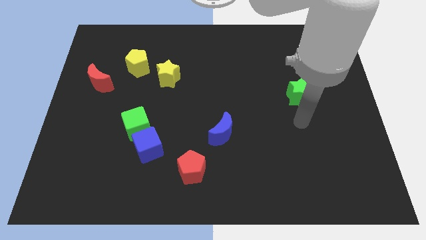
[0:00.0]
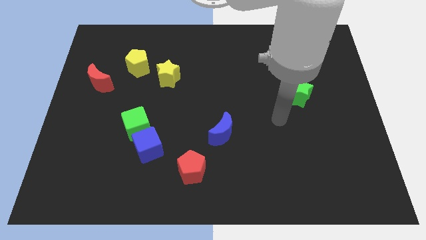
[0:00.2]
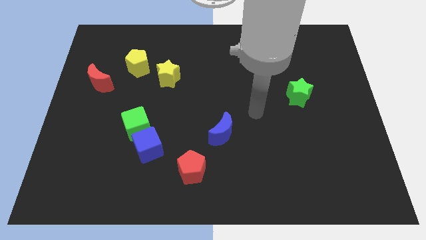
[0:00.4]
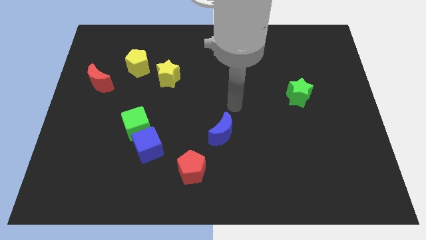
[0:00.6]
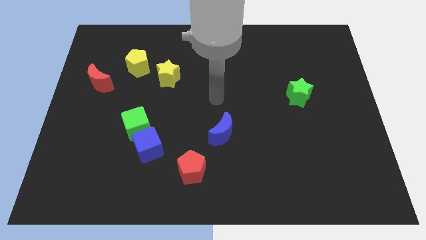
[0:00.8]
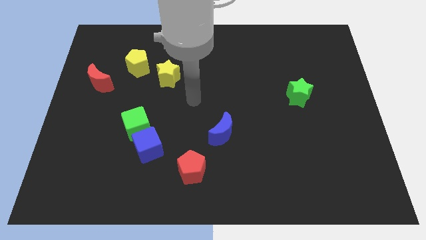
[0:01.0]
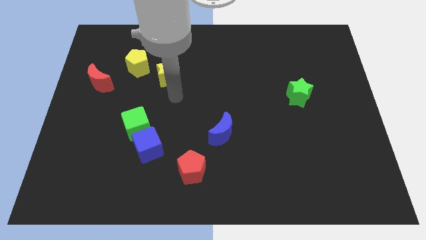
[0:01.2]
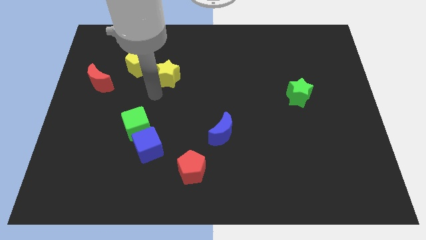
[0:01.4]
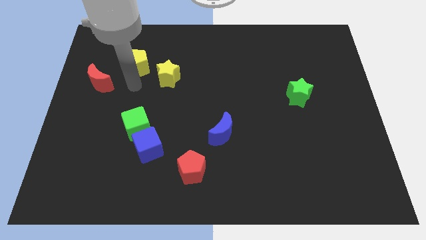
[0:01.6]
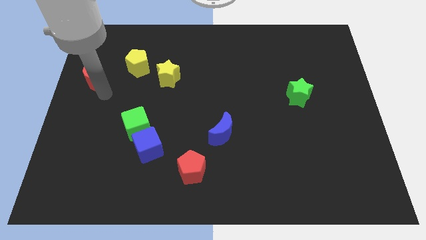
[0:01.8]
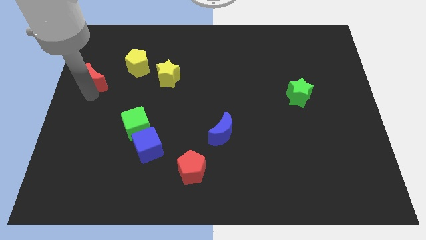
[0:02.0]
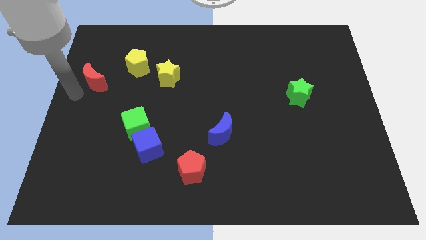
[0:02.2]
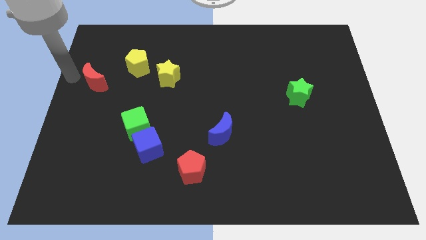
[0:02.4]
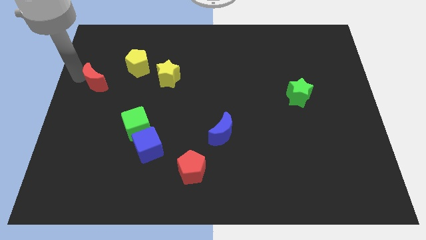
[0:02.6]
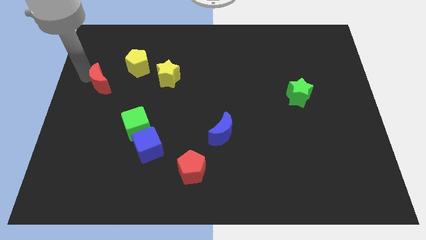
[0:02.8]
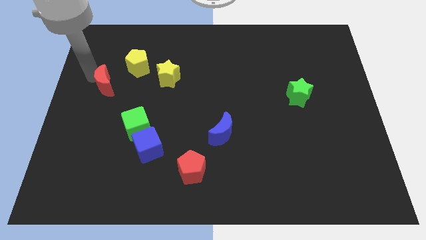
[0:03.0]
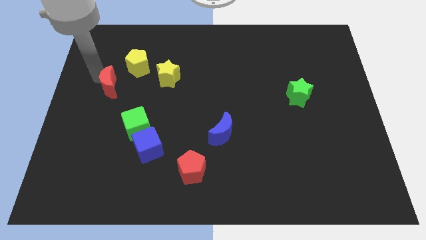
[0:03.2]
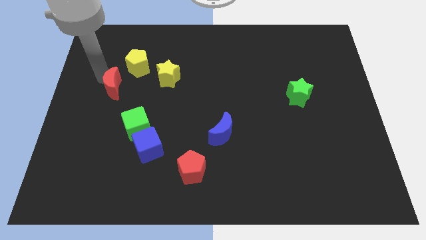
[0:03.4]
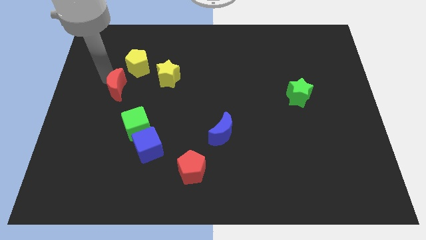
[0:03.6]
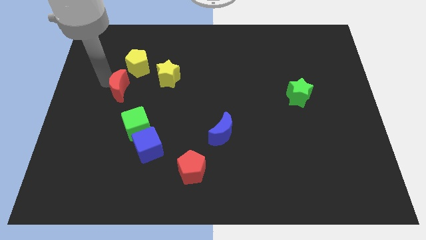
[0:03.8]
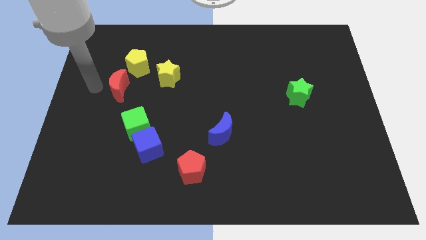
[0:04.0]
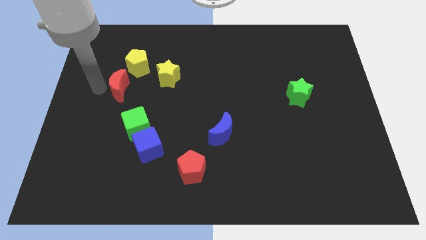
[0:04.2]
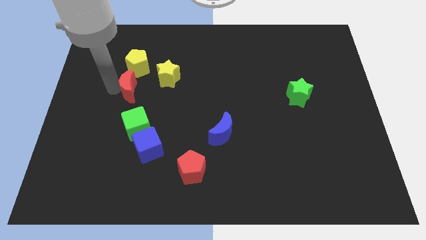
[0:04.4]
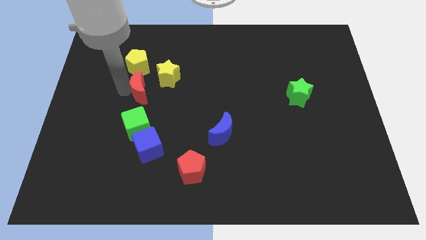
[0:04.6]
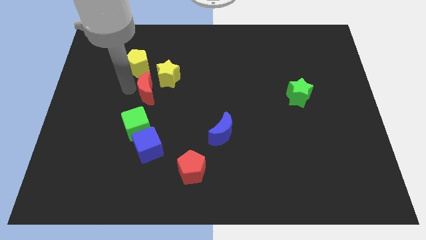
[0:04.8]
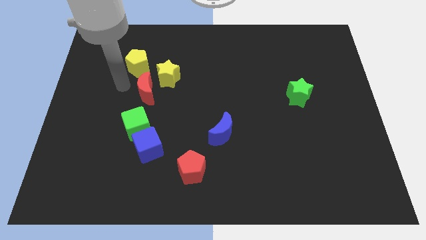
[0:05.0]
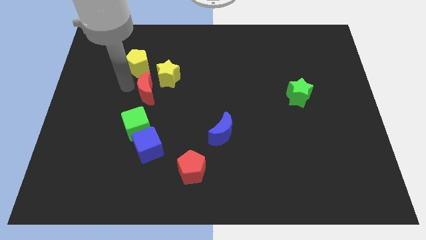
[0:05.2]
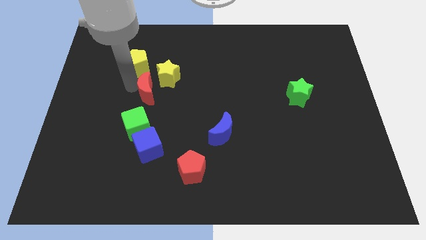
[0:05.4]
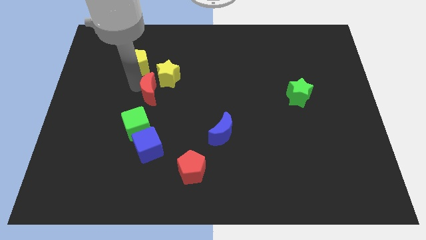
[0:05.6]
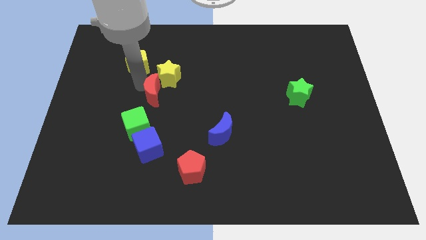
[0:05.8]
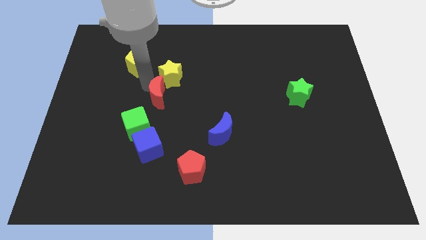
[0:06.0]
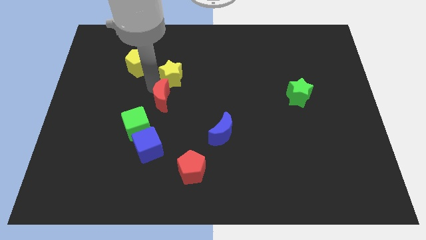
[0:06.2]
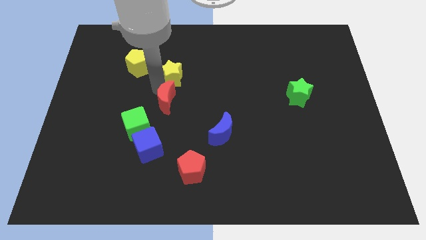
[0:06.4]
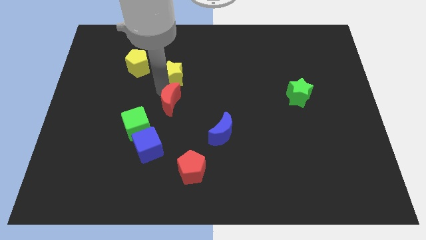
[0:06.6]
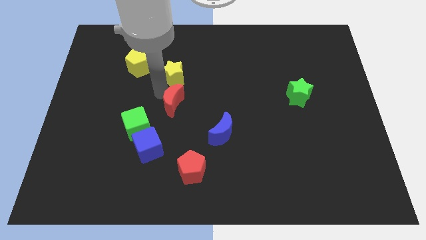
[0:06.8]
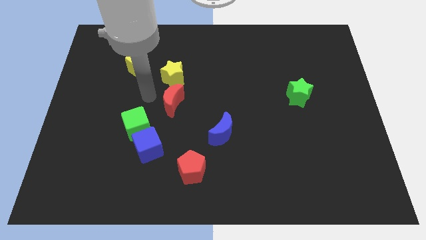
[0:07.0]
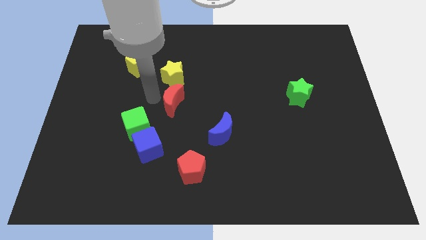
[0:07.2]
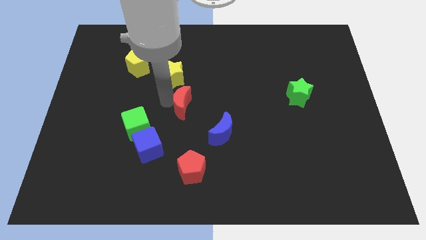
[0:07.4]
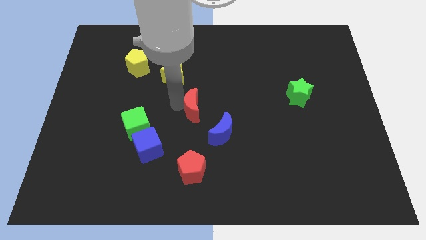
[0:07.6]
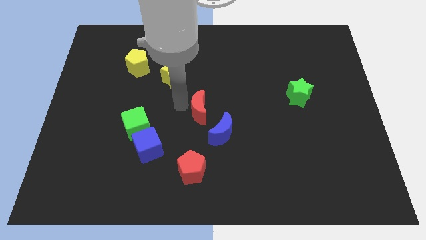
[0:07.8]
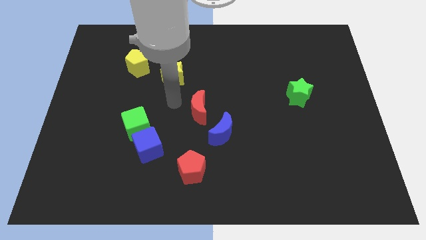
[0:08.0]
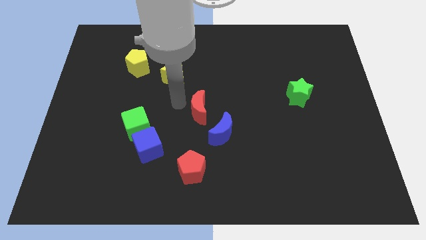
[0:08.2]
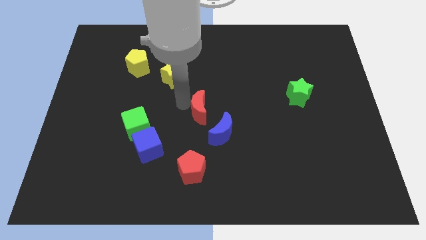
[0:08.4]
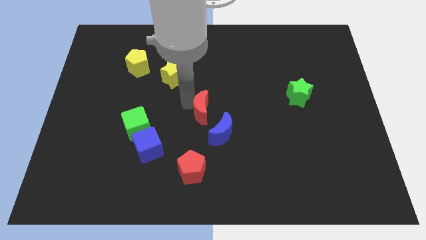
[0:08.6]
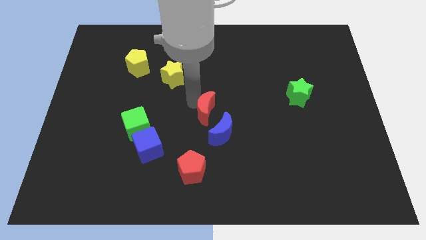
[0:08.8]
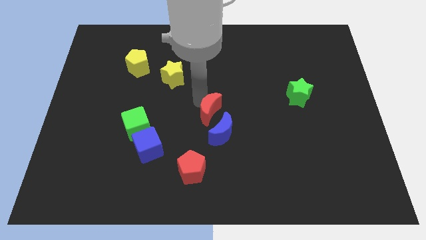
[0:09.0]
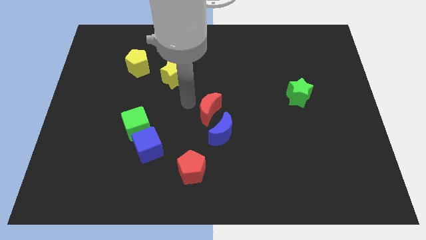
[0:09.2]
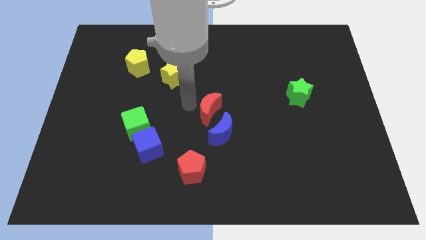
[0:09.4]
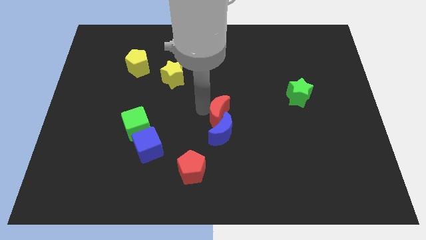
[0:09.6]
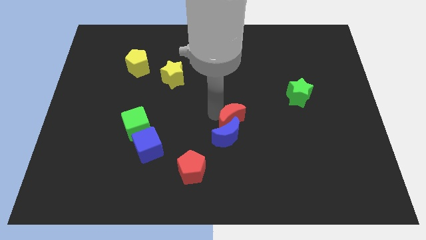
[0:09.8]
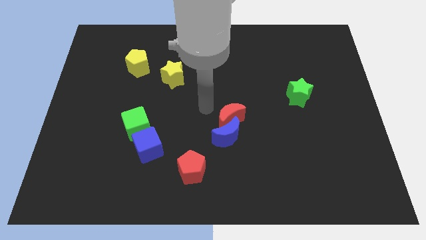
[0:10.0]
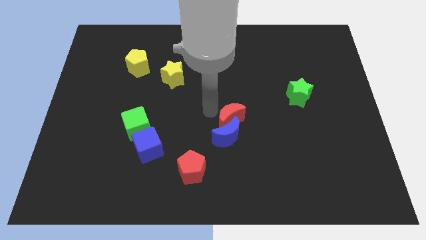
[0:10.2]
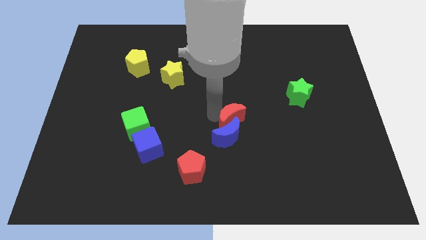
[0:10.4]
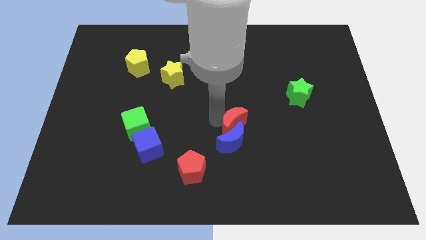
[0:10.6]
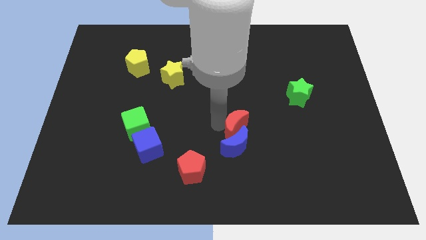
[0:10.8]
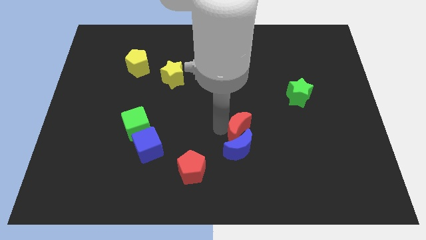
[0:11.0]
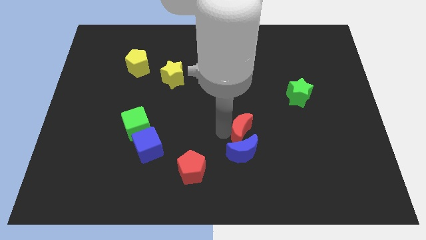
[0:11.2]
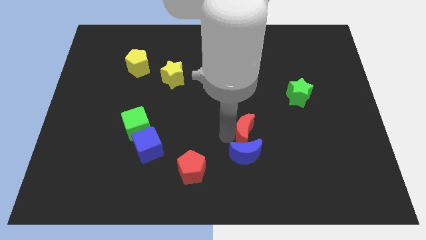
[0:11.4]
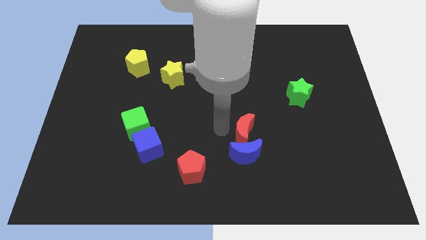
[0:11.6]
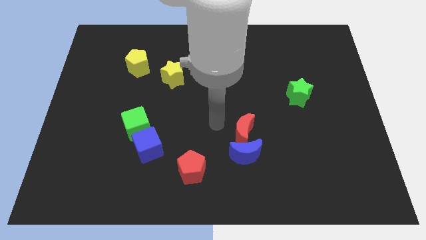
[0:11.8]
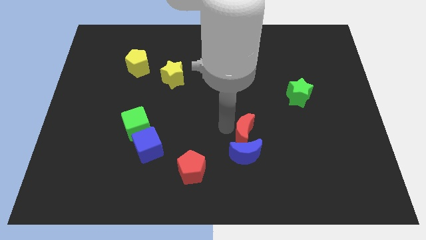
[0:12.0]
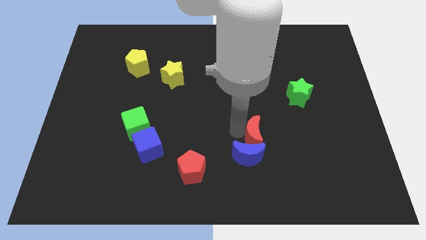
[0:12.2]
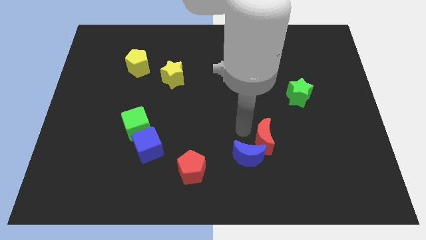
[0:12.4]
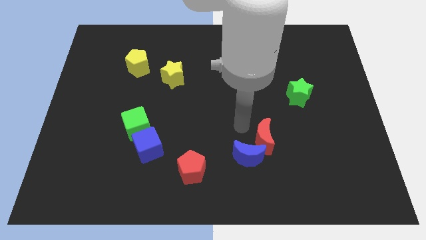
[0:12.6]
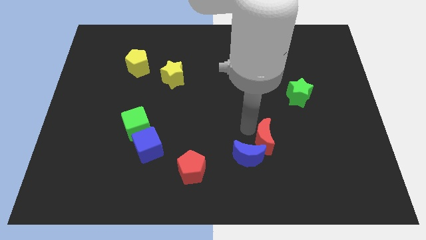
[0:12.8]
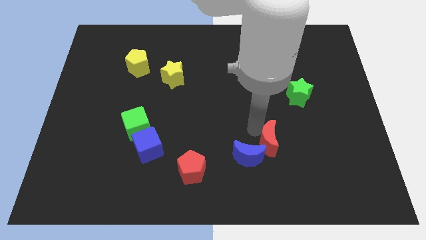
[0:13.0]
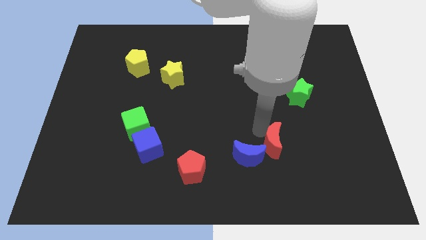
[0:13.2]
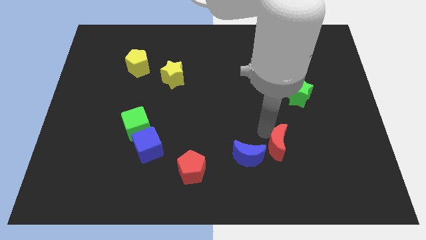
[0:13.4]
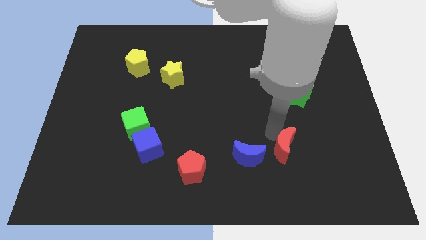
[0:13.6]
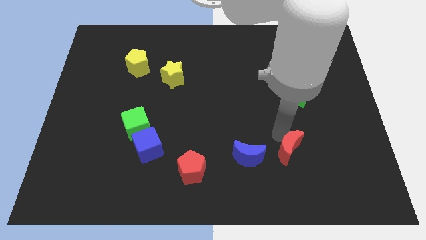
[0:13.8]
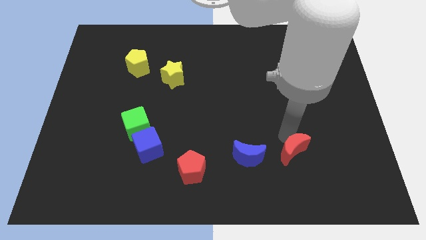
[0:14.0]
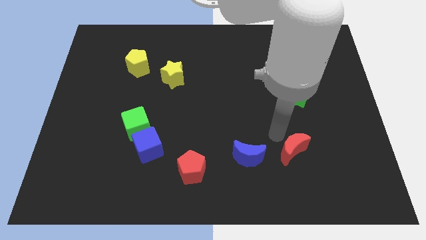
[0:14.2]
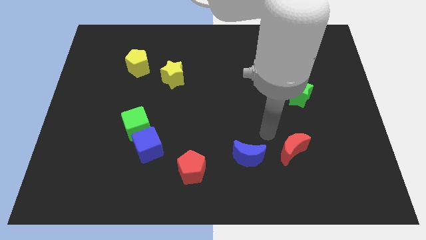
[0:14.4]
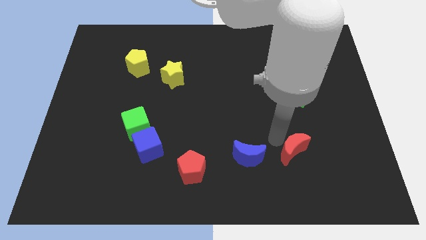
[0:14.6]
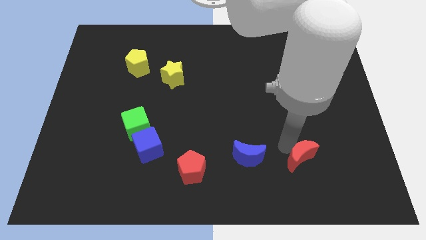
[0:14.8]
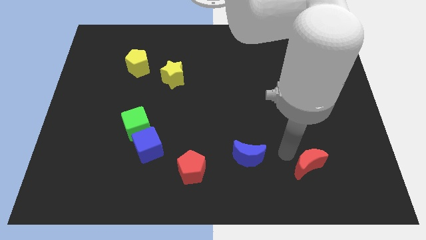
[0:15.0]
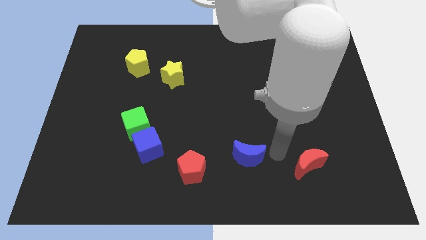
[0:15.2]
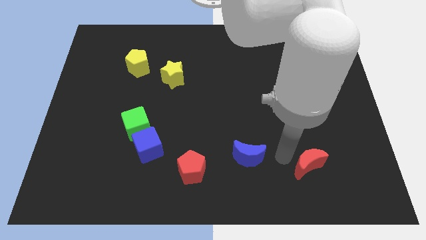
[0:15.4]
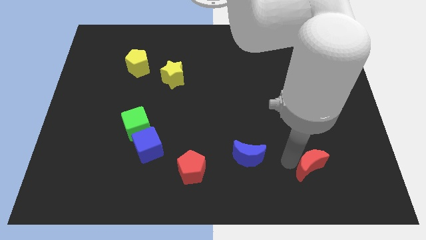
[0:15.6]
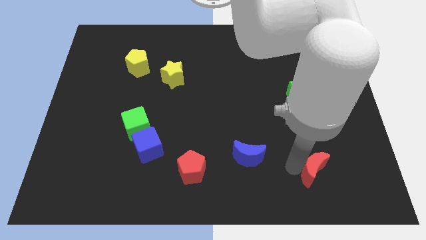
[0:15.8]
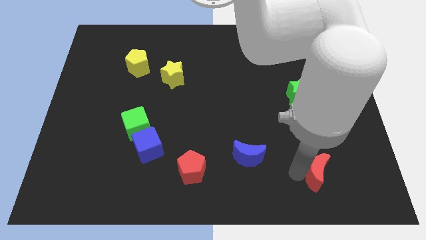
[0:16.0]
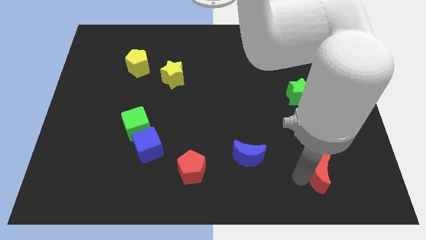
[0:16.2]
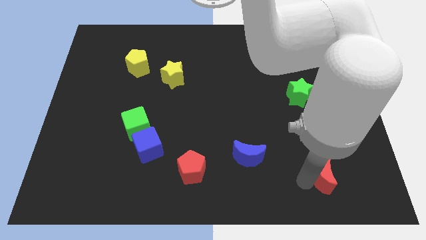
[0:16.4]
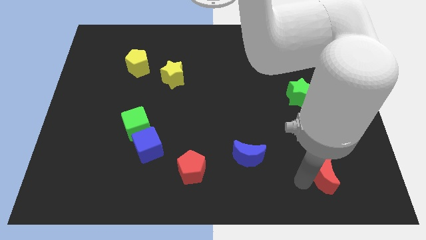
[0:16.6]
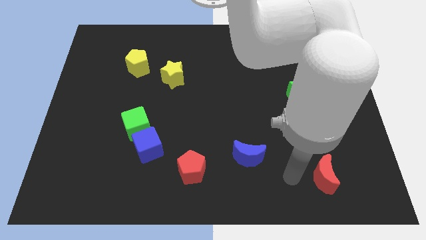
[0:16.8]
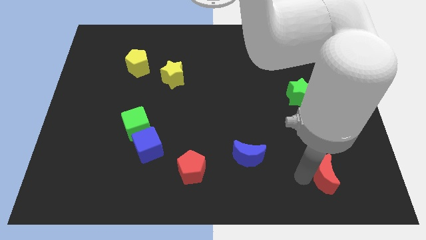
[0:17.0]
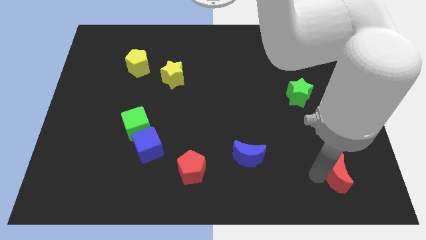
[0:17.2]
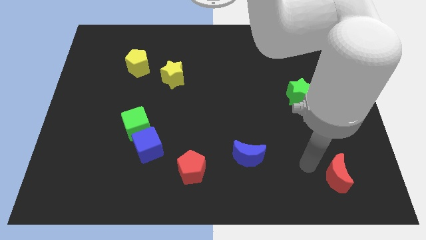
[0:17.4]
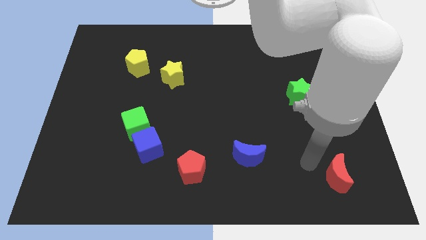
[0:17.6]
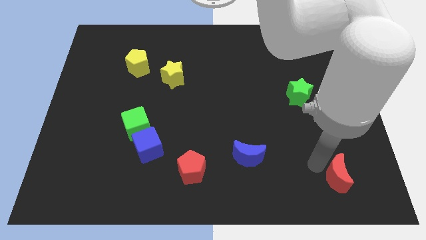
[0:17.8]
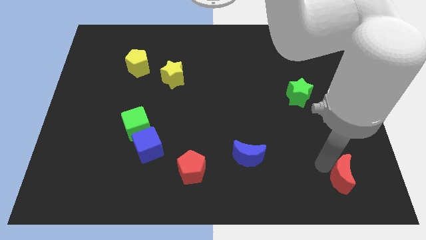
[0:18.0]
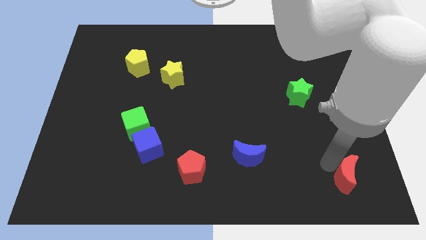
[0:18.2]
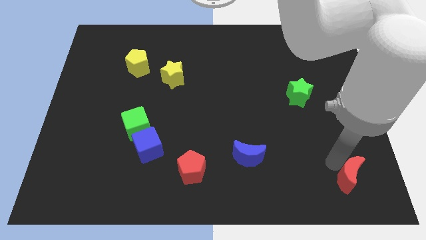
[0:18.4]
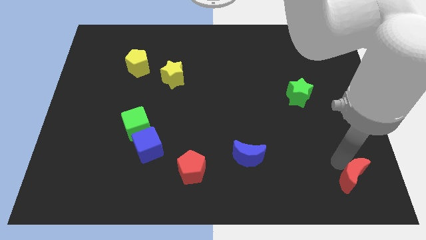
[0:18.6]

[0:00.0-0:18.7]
move the red moon to the bottom right of the board
